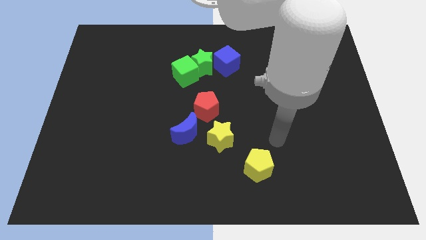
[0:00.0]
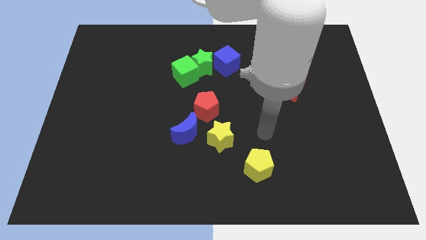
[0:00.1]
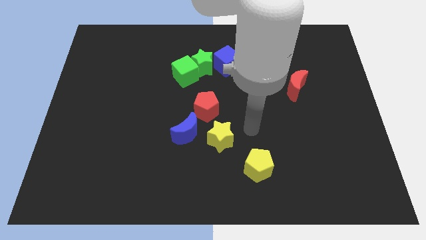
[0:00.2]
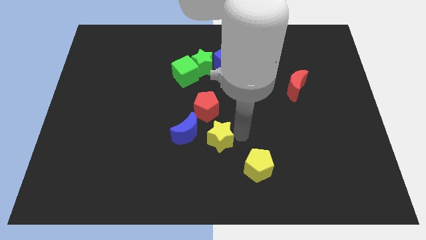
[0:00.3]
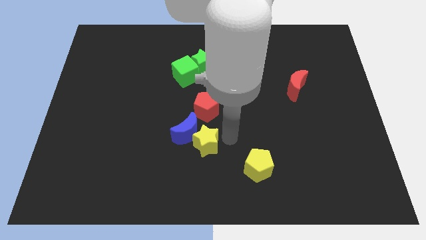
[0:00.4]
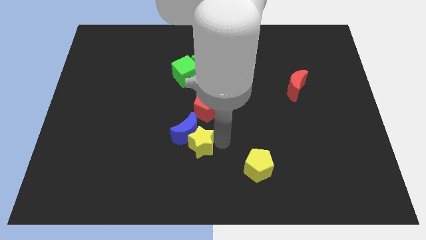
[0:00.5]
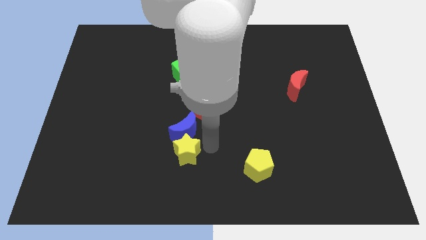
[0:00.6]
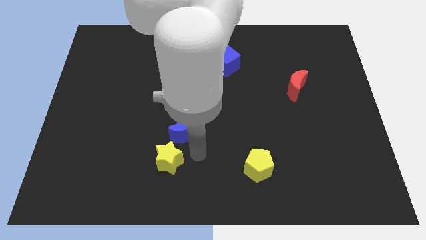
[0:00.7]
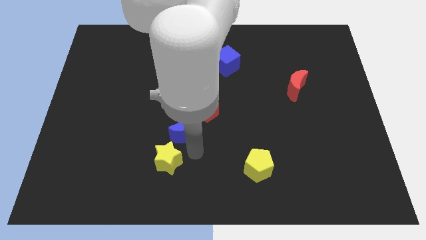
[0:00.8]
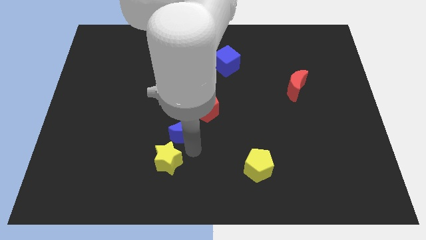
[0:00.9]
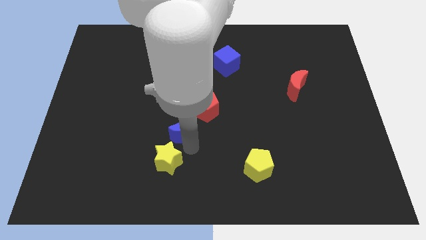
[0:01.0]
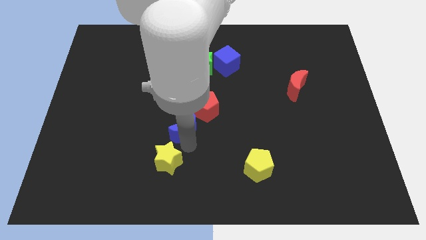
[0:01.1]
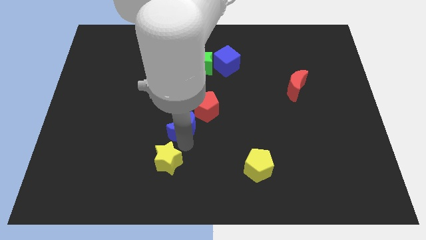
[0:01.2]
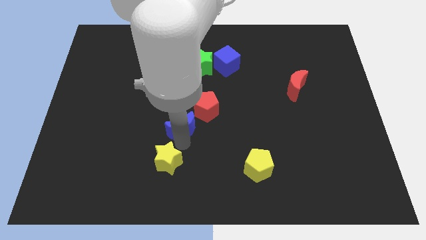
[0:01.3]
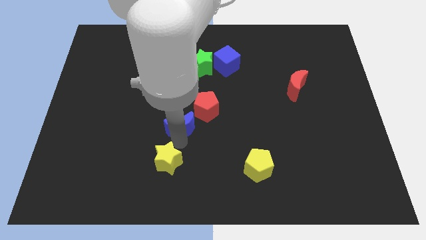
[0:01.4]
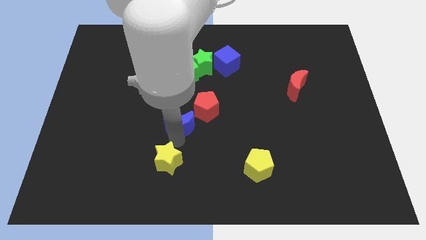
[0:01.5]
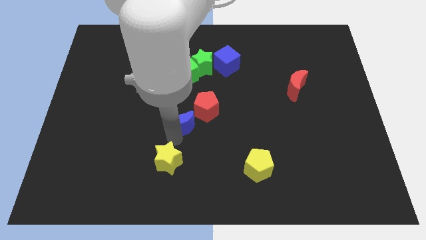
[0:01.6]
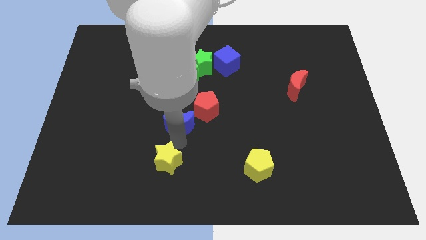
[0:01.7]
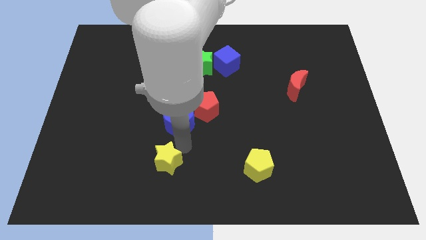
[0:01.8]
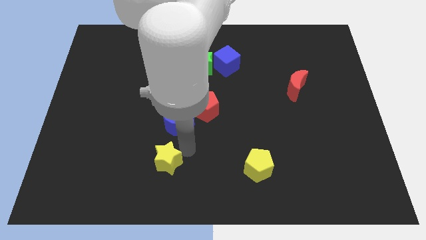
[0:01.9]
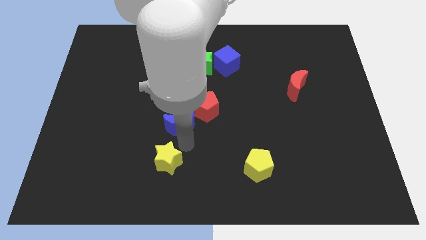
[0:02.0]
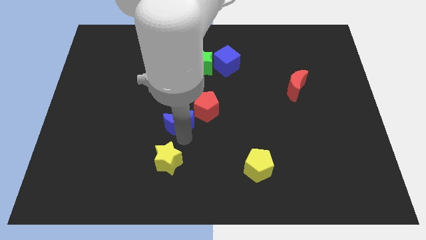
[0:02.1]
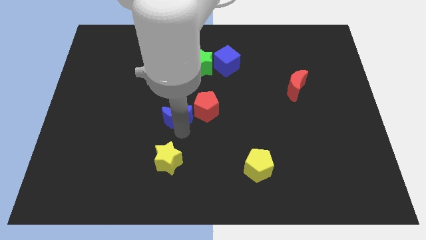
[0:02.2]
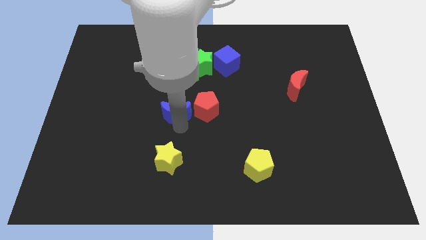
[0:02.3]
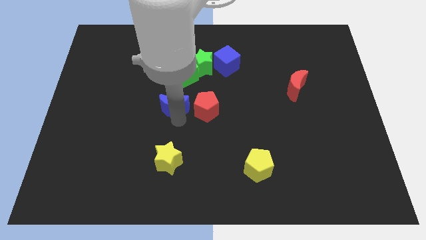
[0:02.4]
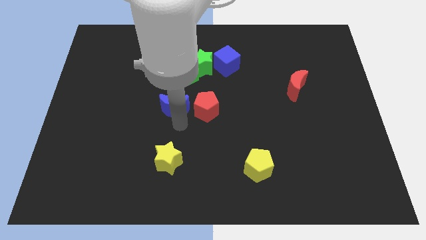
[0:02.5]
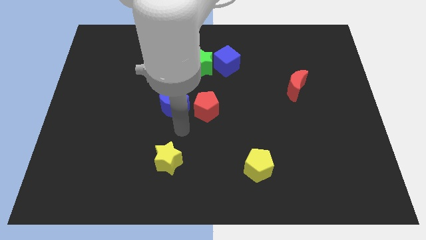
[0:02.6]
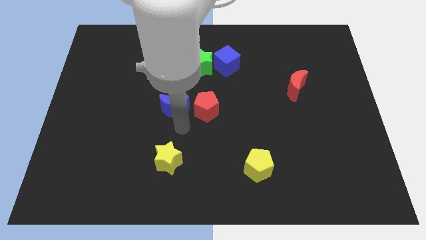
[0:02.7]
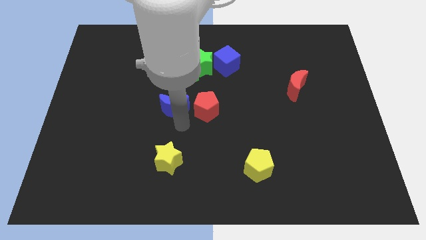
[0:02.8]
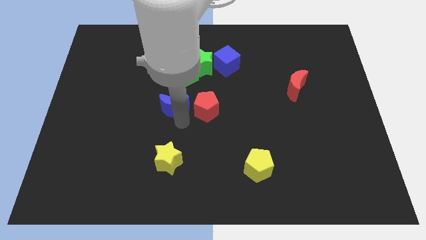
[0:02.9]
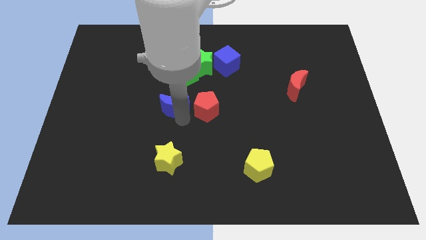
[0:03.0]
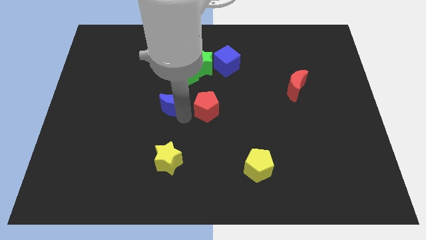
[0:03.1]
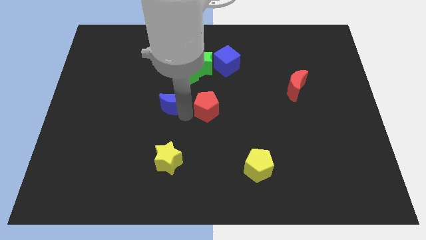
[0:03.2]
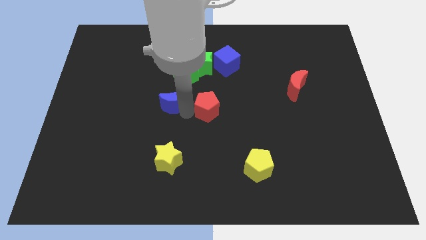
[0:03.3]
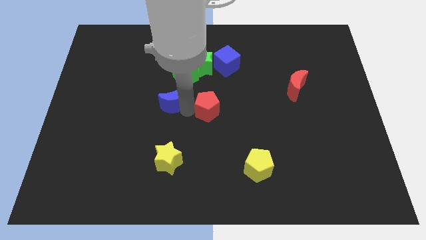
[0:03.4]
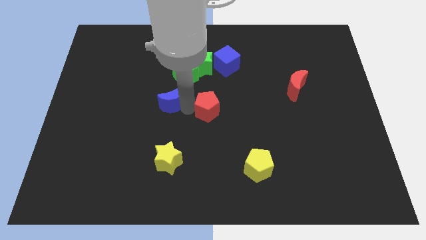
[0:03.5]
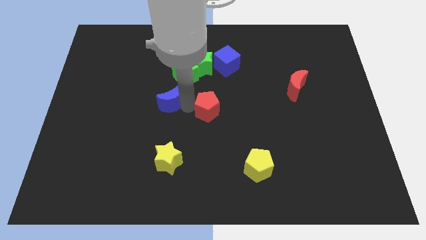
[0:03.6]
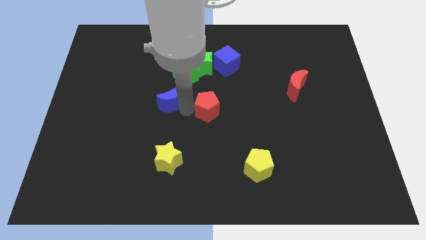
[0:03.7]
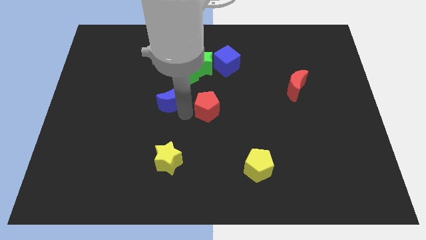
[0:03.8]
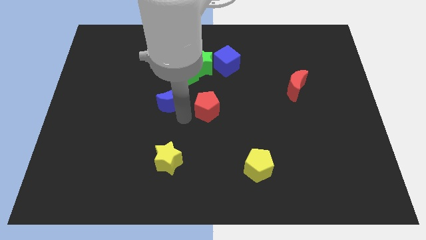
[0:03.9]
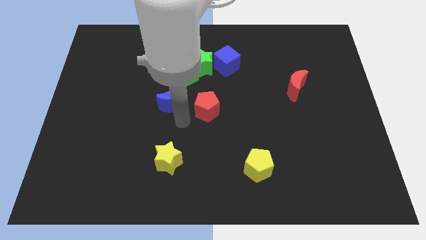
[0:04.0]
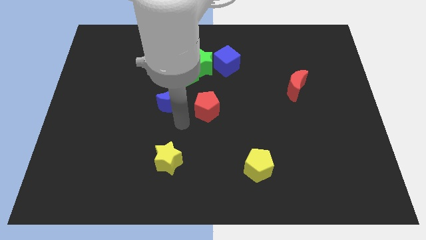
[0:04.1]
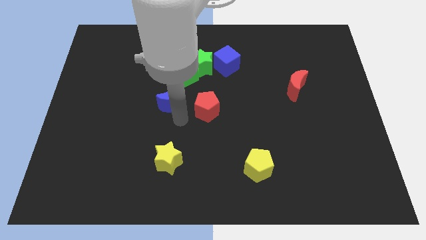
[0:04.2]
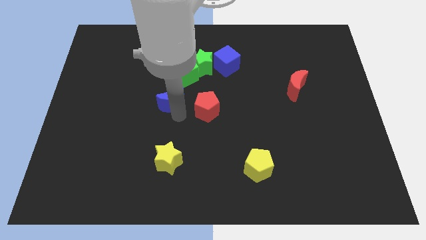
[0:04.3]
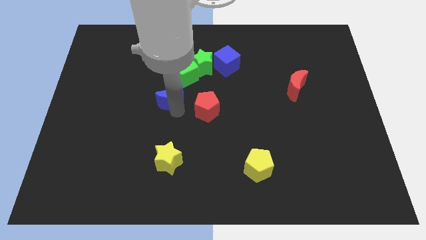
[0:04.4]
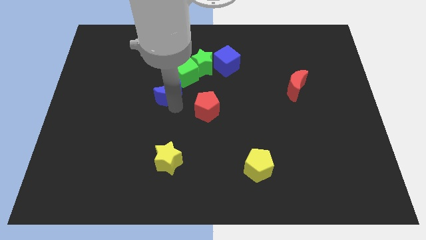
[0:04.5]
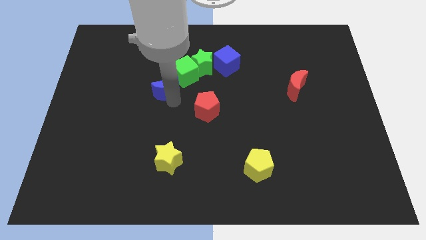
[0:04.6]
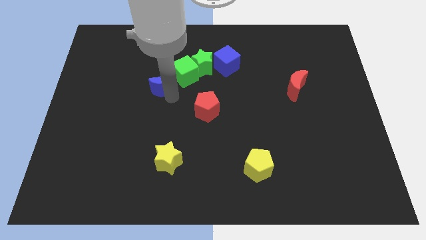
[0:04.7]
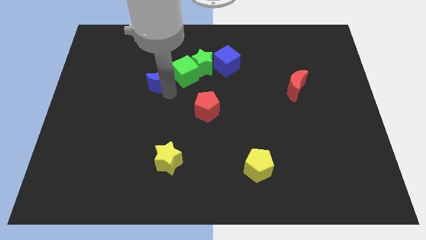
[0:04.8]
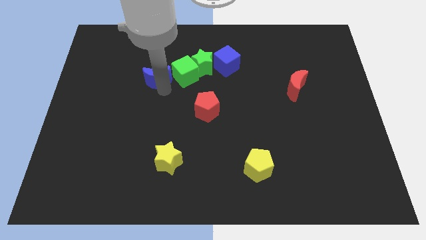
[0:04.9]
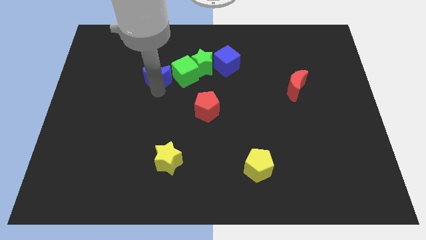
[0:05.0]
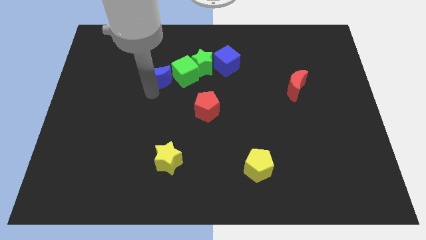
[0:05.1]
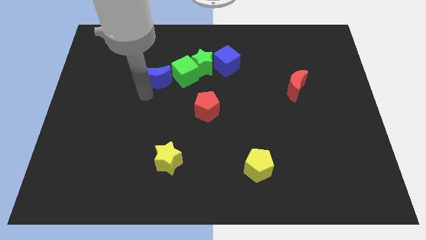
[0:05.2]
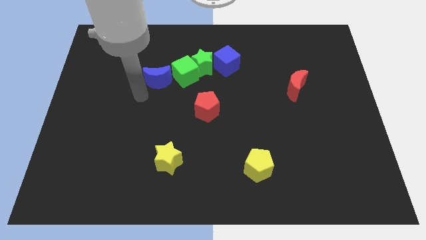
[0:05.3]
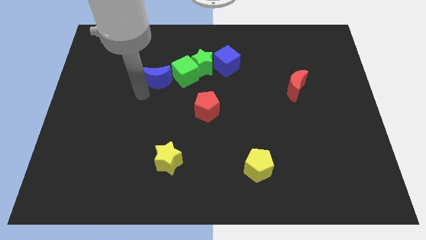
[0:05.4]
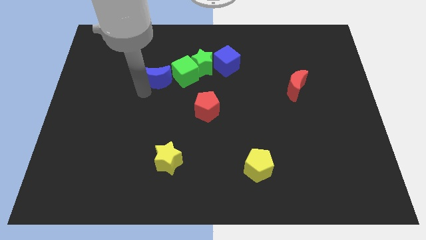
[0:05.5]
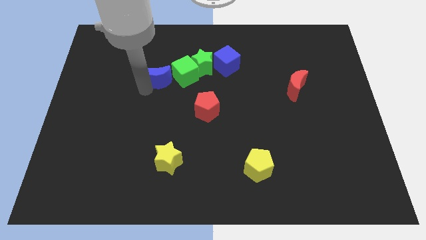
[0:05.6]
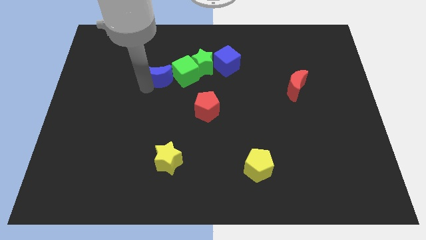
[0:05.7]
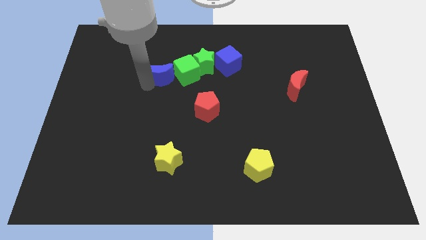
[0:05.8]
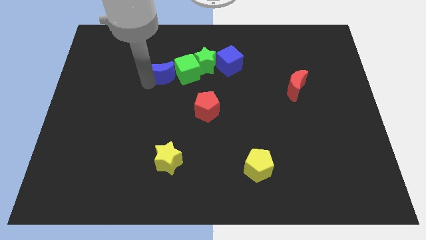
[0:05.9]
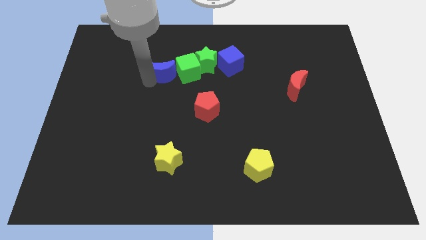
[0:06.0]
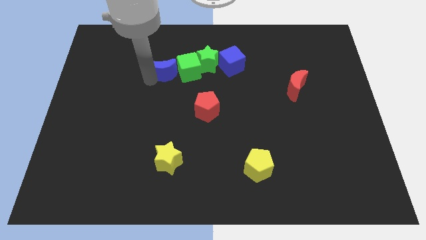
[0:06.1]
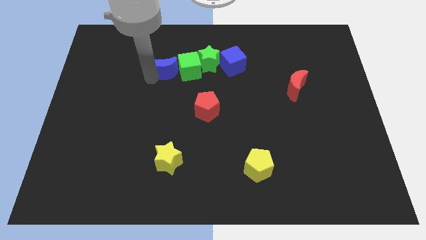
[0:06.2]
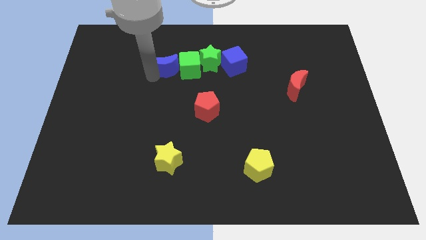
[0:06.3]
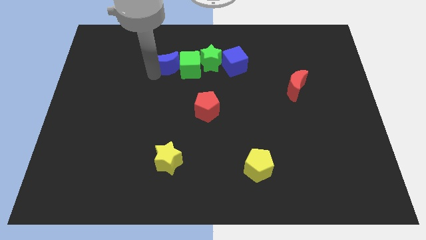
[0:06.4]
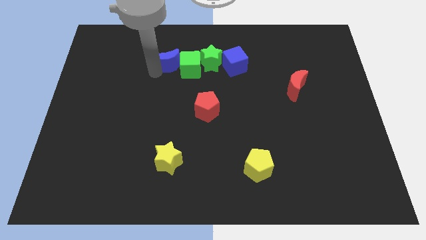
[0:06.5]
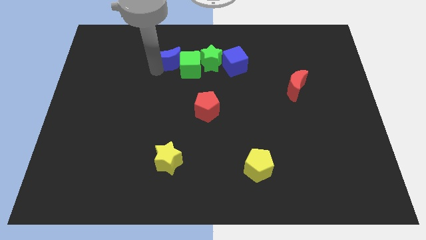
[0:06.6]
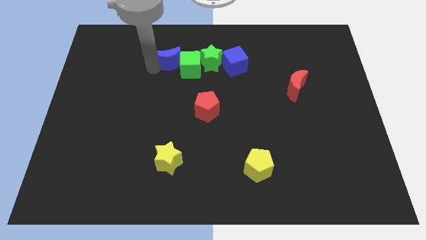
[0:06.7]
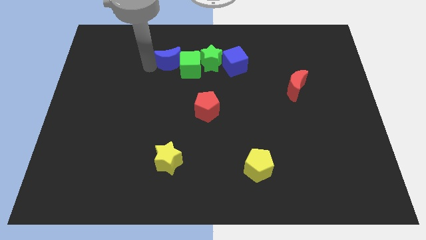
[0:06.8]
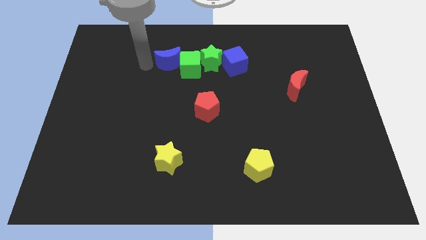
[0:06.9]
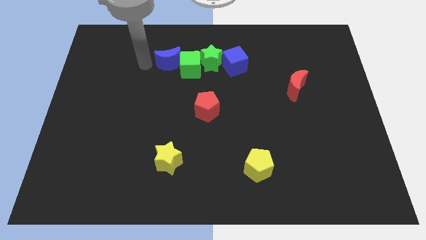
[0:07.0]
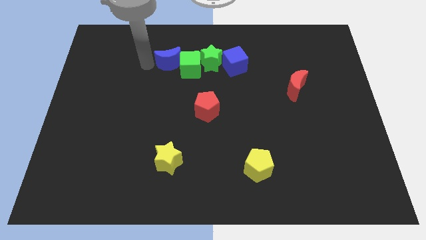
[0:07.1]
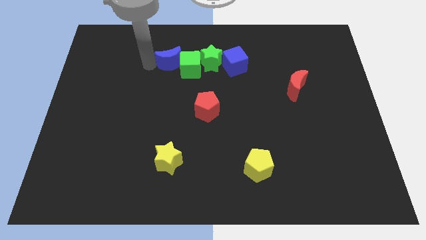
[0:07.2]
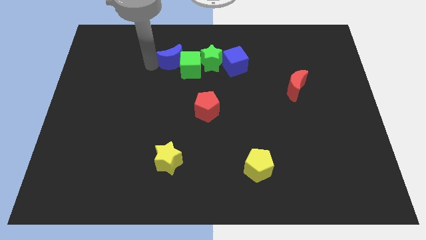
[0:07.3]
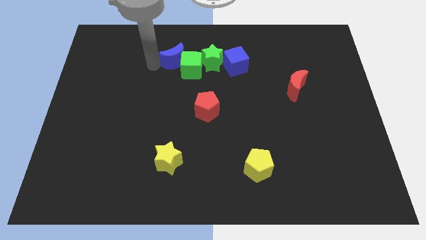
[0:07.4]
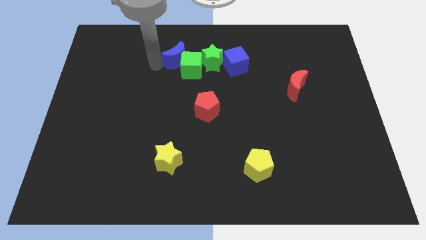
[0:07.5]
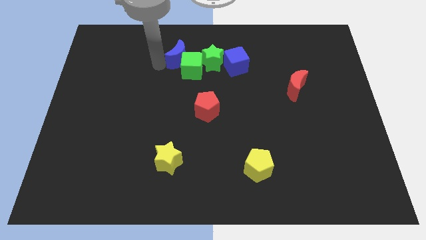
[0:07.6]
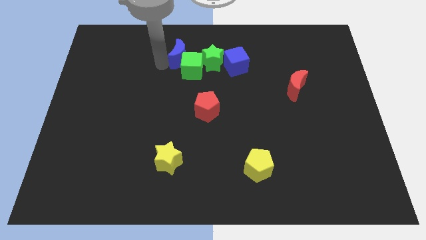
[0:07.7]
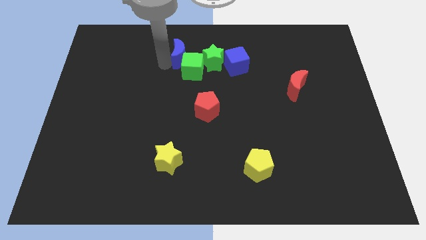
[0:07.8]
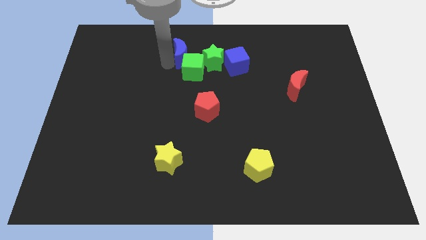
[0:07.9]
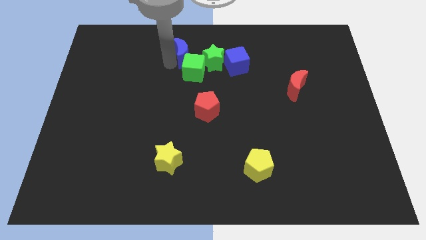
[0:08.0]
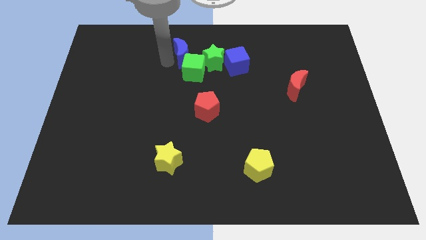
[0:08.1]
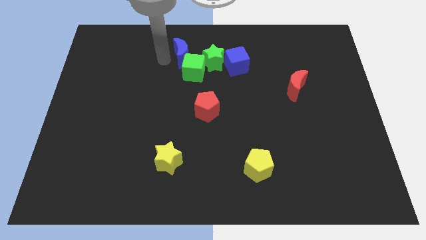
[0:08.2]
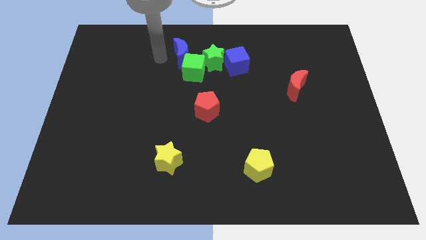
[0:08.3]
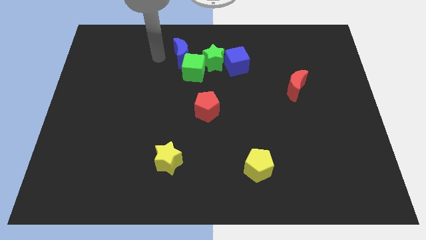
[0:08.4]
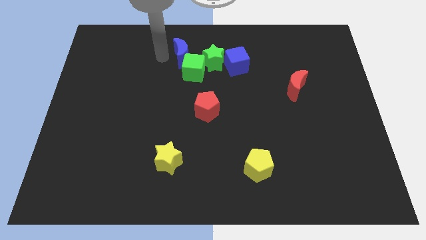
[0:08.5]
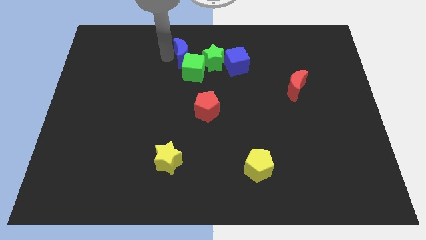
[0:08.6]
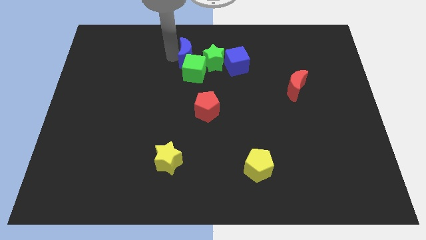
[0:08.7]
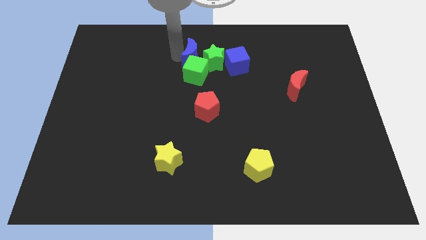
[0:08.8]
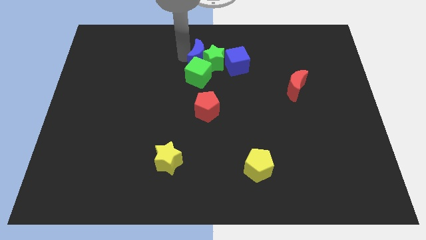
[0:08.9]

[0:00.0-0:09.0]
move the blue moon to the top right side of the green cube
